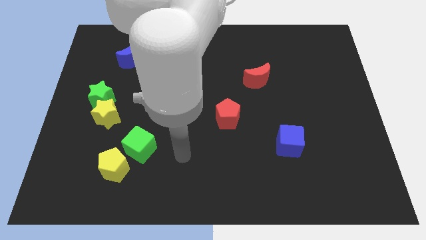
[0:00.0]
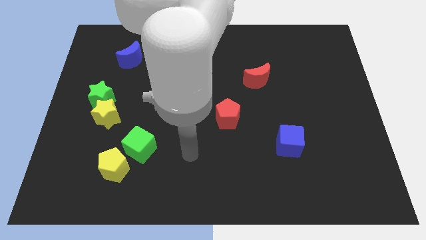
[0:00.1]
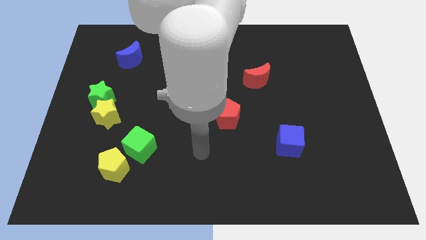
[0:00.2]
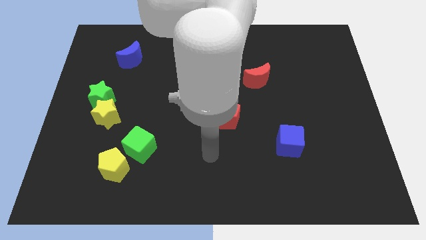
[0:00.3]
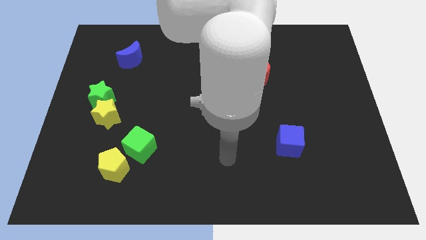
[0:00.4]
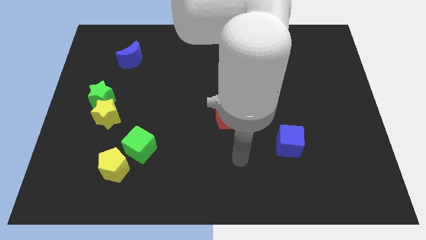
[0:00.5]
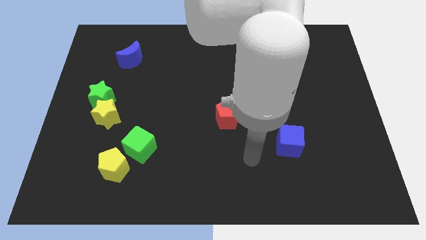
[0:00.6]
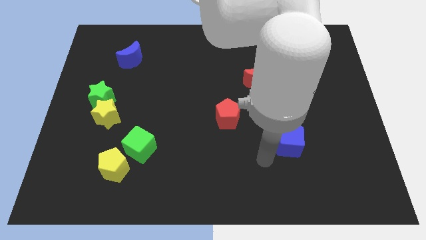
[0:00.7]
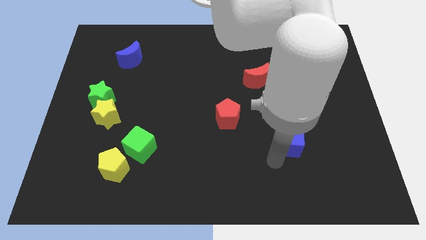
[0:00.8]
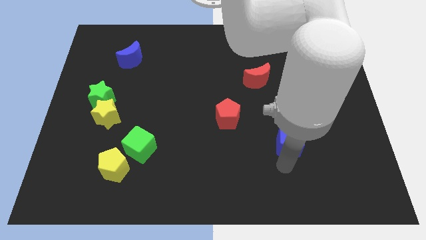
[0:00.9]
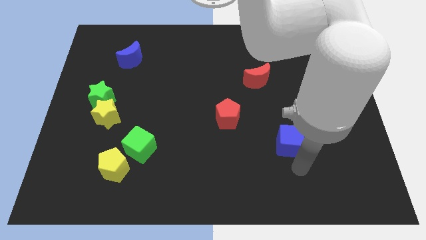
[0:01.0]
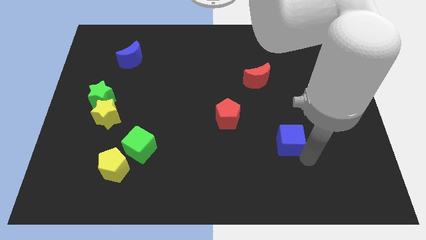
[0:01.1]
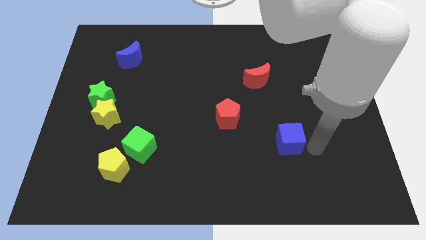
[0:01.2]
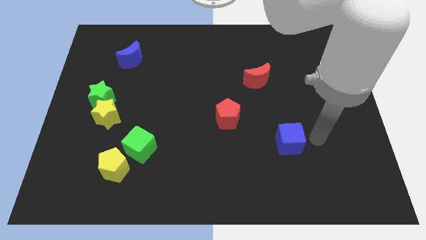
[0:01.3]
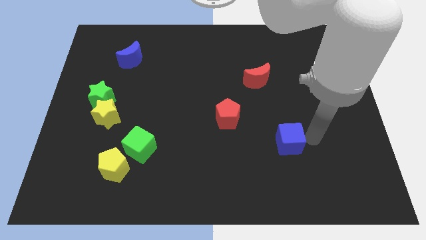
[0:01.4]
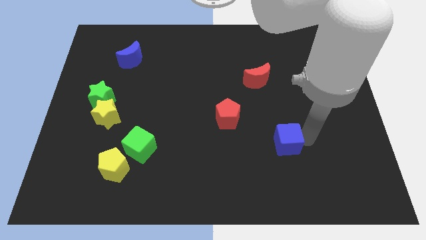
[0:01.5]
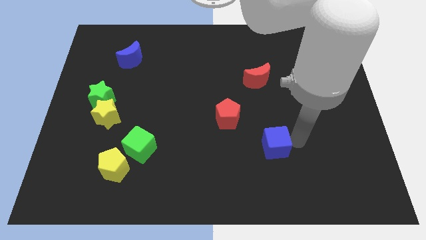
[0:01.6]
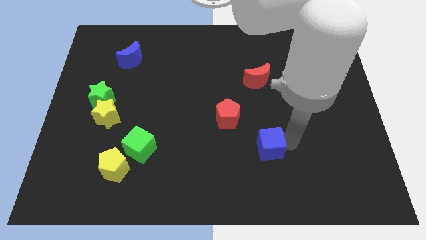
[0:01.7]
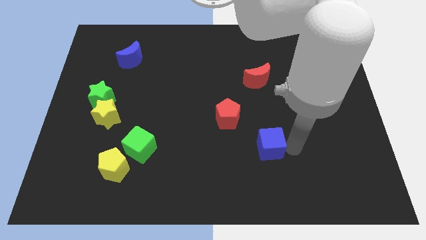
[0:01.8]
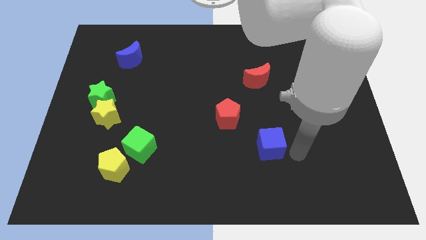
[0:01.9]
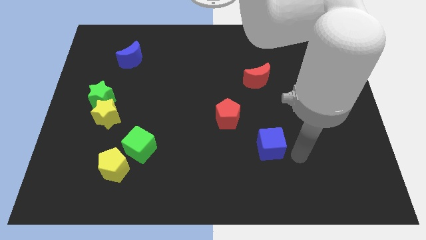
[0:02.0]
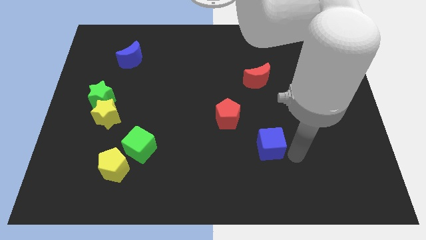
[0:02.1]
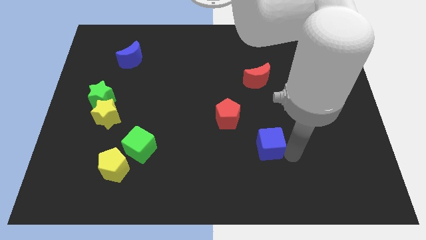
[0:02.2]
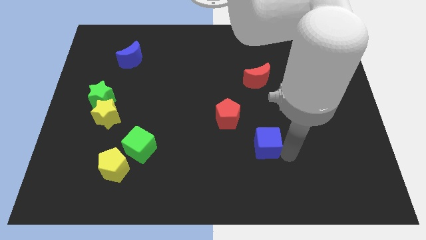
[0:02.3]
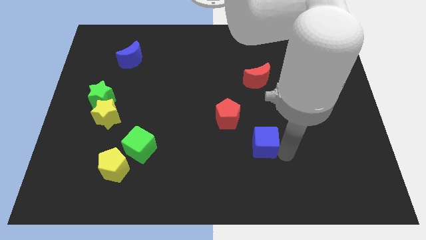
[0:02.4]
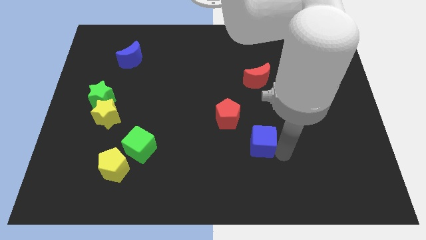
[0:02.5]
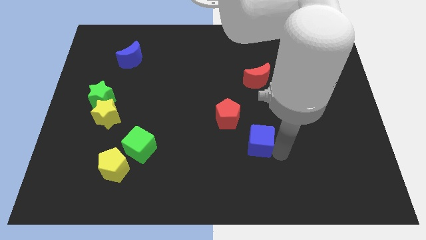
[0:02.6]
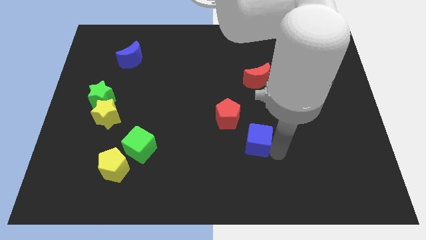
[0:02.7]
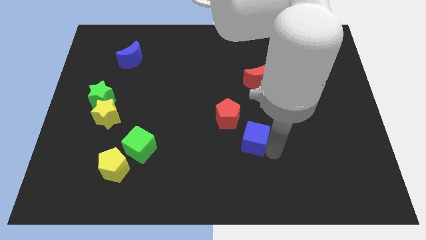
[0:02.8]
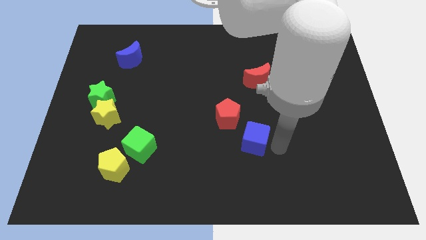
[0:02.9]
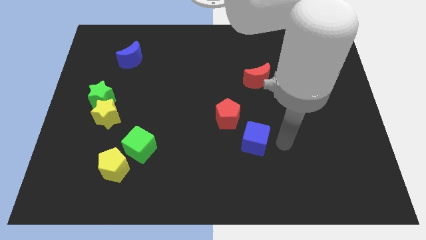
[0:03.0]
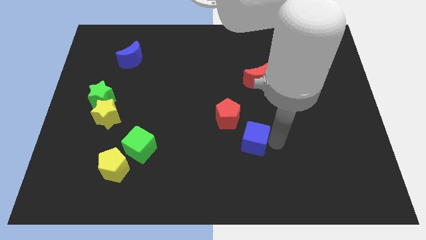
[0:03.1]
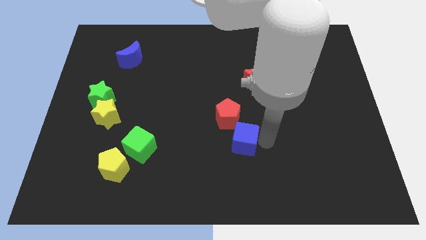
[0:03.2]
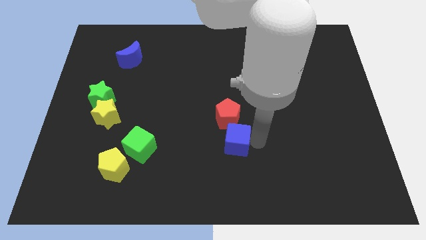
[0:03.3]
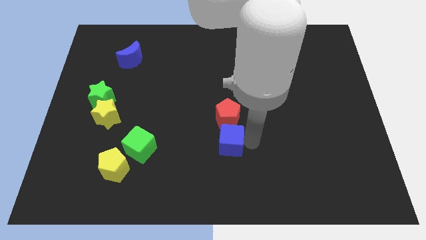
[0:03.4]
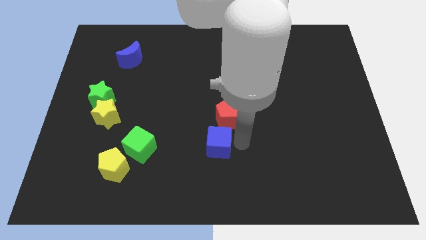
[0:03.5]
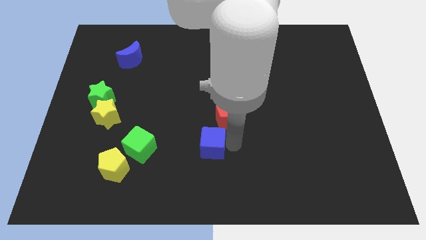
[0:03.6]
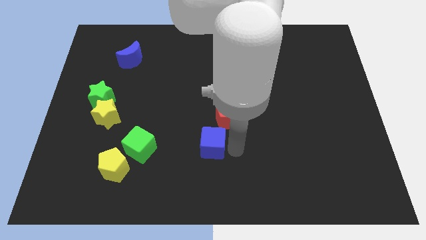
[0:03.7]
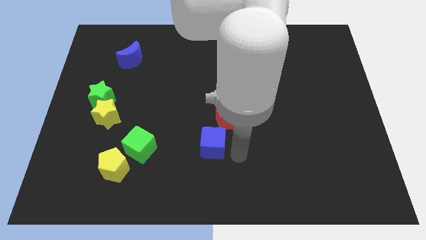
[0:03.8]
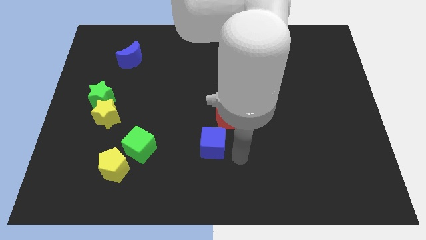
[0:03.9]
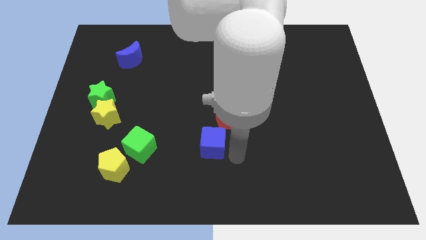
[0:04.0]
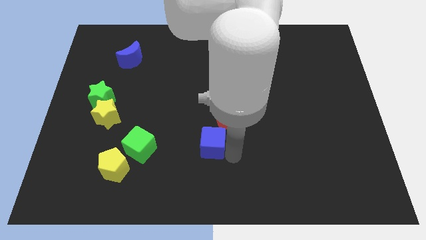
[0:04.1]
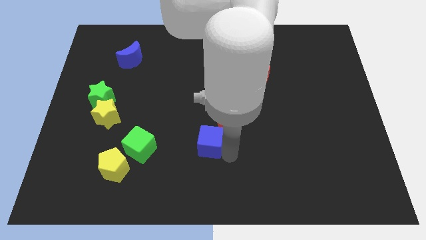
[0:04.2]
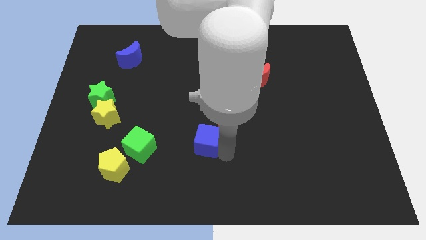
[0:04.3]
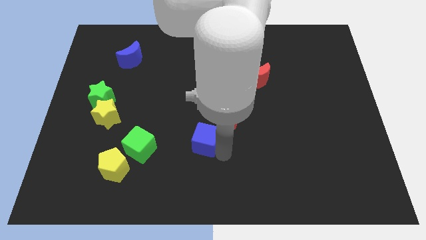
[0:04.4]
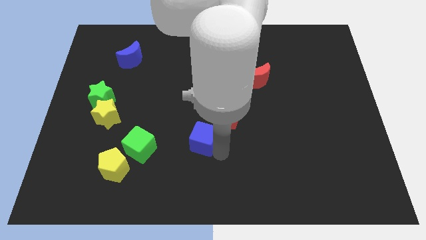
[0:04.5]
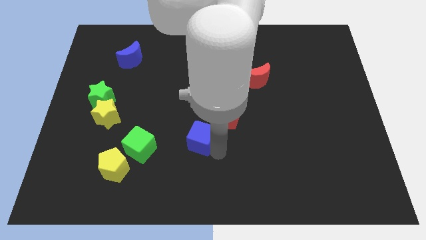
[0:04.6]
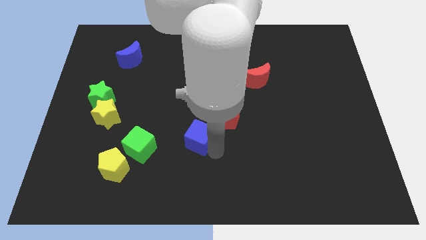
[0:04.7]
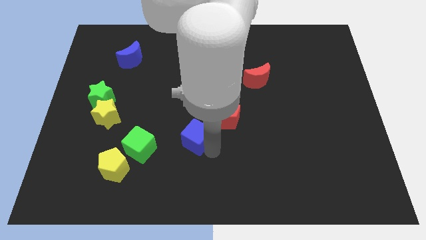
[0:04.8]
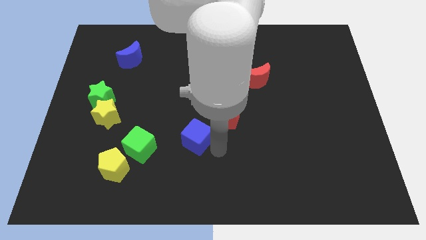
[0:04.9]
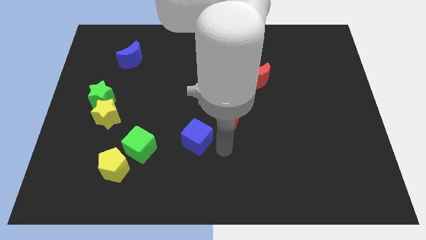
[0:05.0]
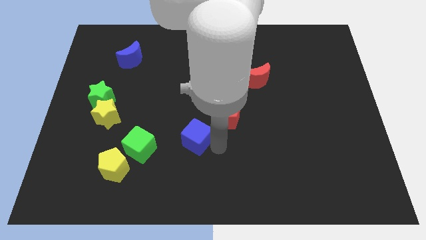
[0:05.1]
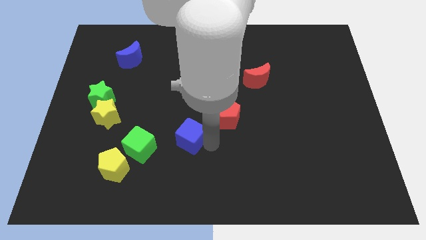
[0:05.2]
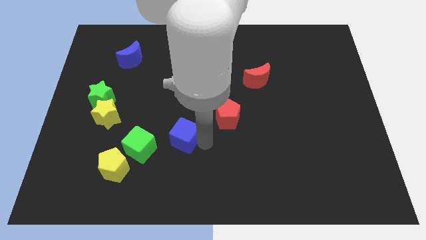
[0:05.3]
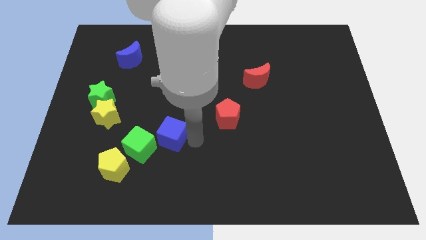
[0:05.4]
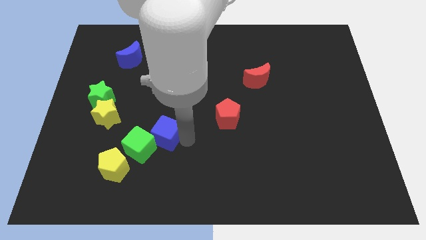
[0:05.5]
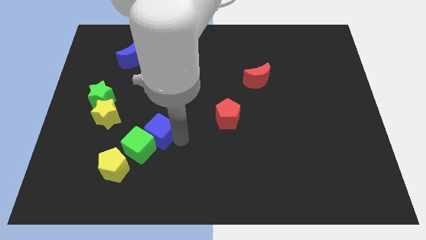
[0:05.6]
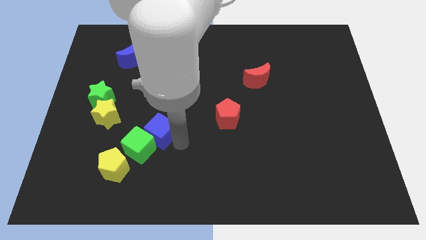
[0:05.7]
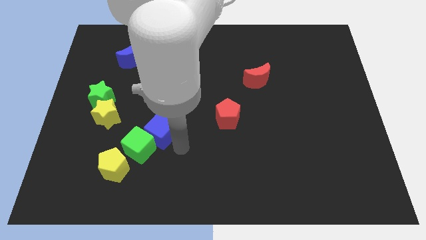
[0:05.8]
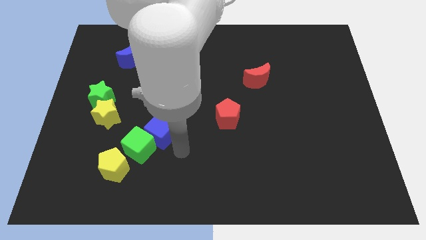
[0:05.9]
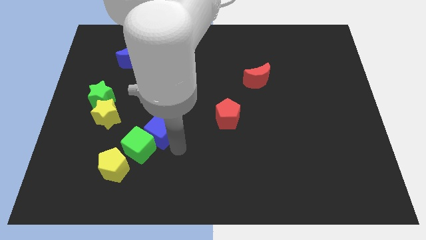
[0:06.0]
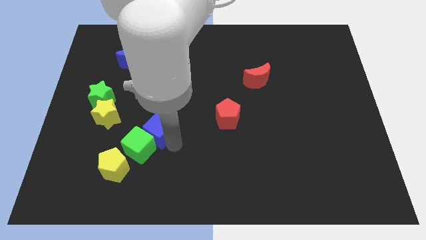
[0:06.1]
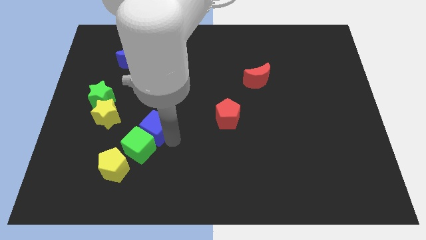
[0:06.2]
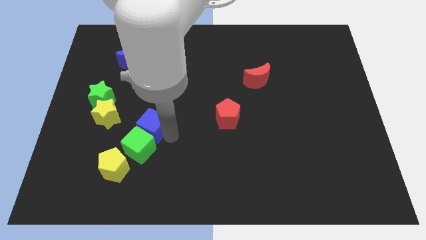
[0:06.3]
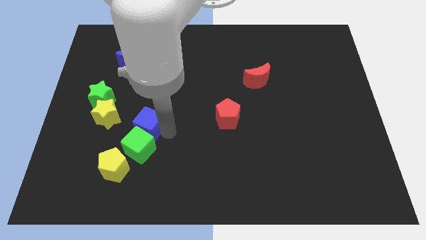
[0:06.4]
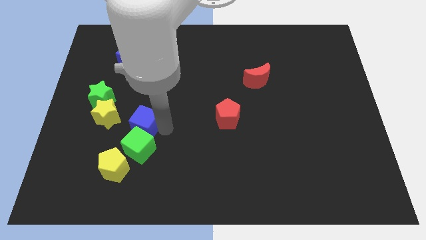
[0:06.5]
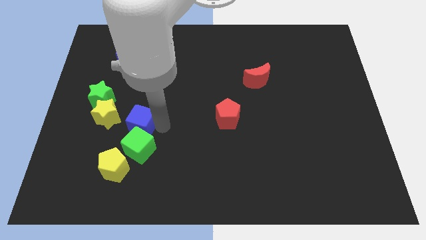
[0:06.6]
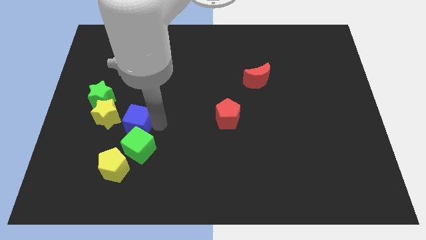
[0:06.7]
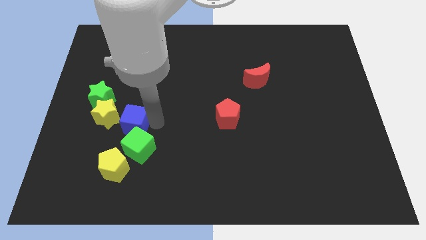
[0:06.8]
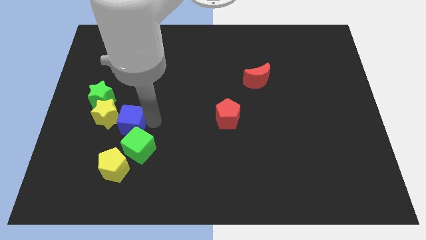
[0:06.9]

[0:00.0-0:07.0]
slide the blue cube close to the yellow star

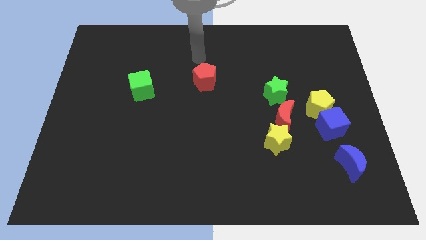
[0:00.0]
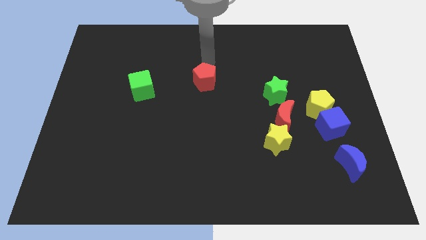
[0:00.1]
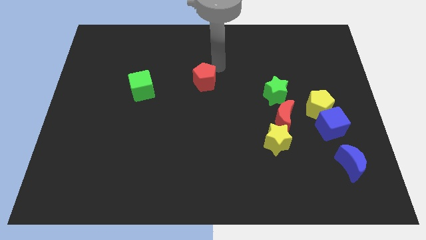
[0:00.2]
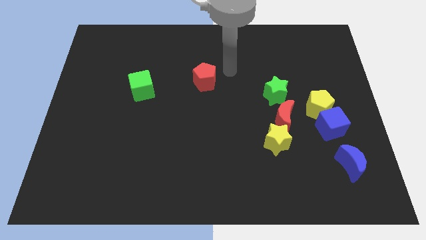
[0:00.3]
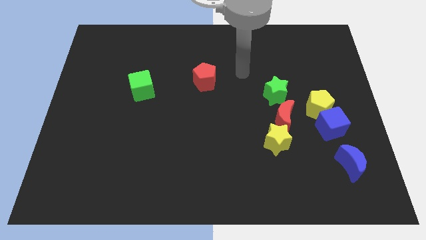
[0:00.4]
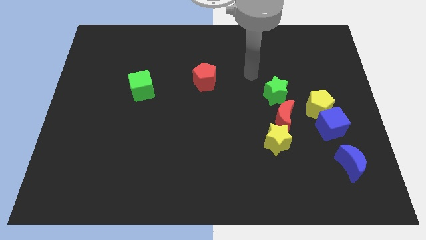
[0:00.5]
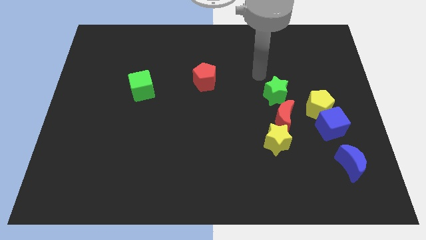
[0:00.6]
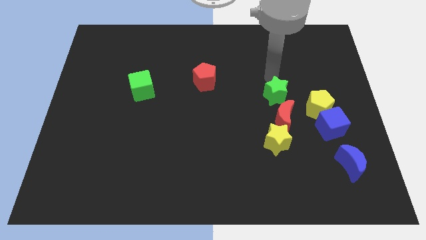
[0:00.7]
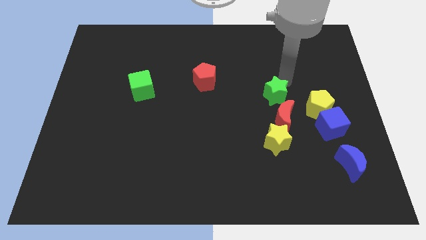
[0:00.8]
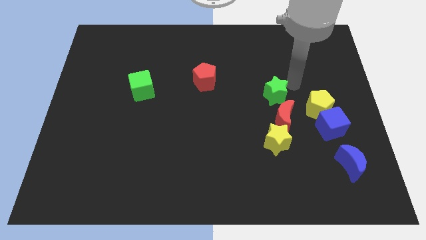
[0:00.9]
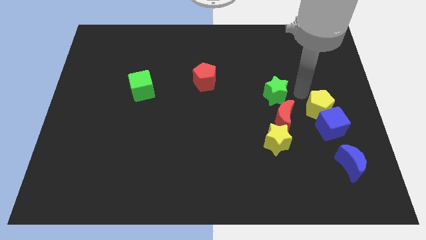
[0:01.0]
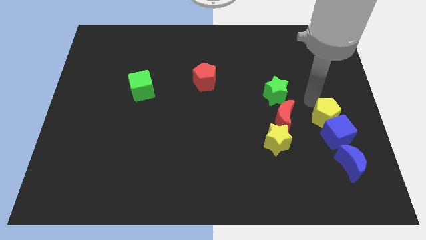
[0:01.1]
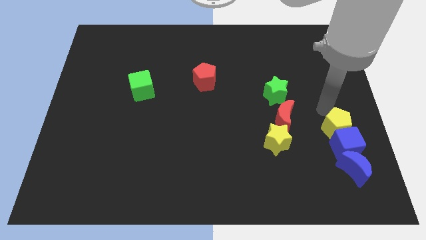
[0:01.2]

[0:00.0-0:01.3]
slide the blue cube close to the blue moon
